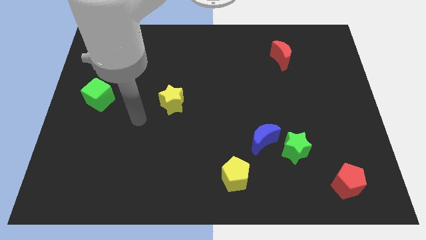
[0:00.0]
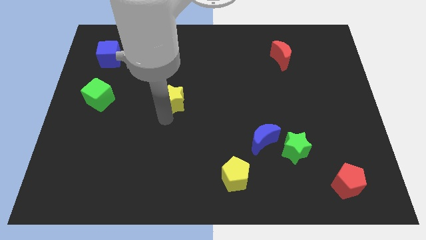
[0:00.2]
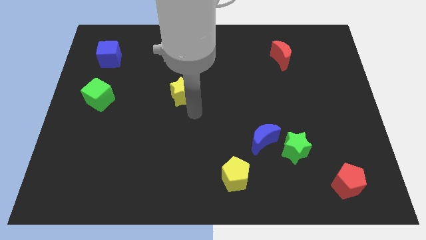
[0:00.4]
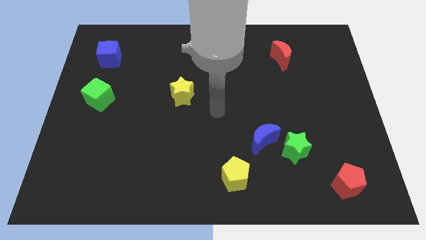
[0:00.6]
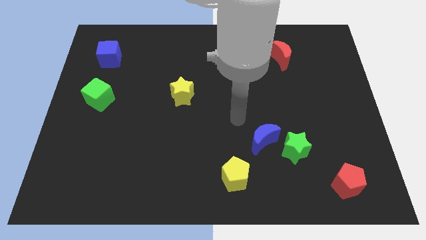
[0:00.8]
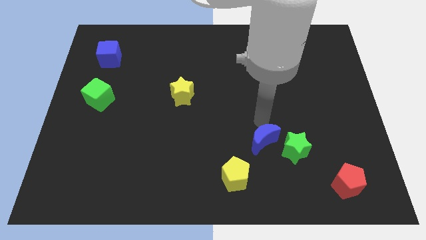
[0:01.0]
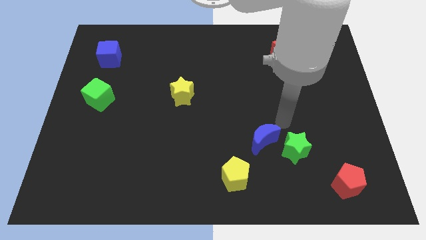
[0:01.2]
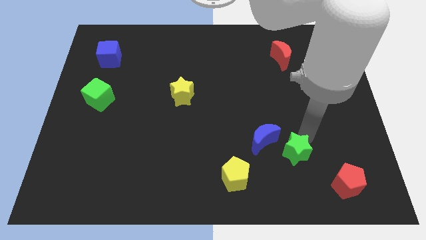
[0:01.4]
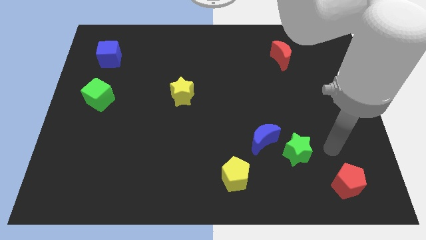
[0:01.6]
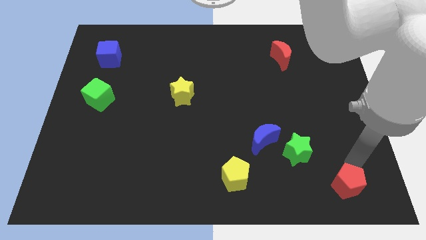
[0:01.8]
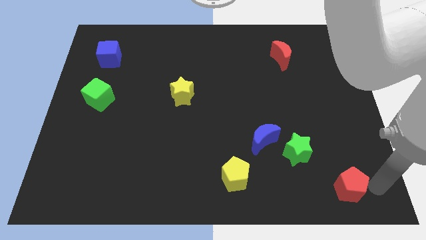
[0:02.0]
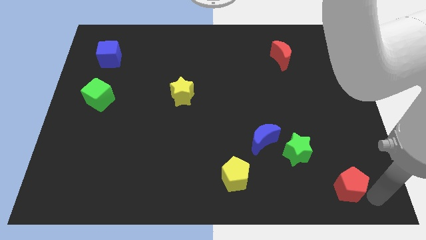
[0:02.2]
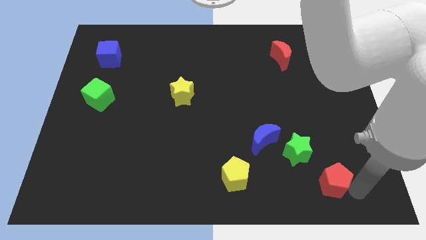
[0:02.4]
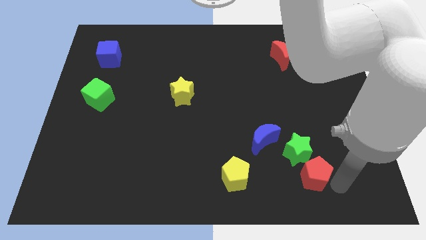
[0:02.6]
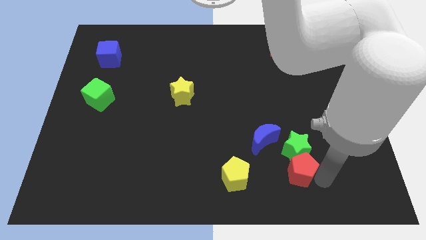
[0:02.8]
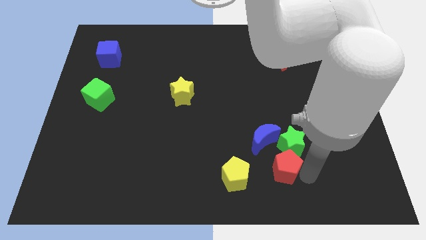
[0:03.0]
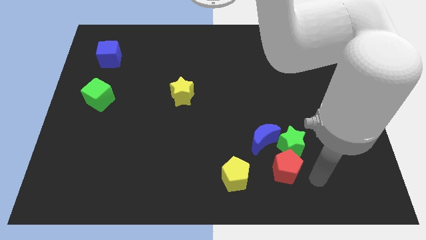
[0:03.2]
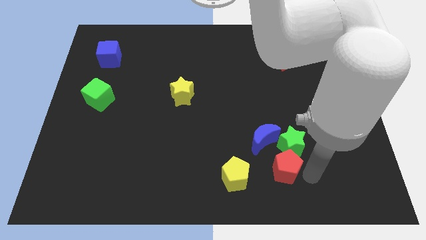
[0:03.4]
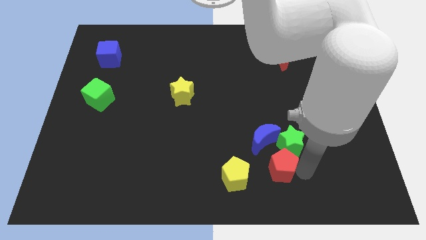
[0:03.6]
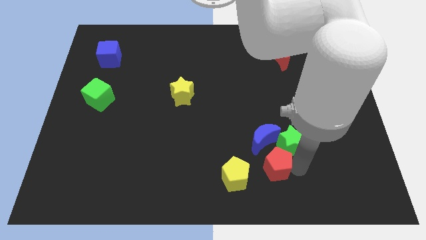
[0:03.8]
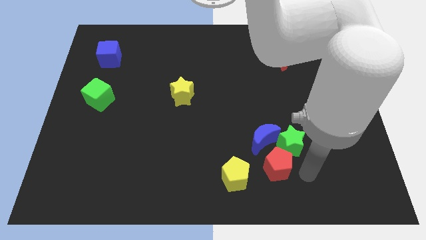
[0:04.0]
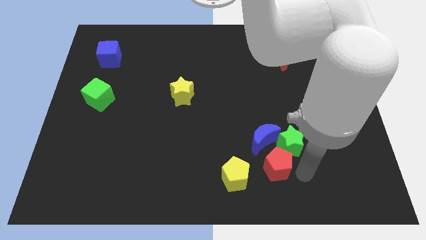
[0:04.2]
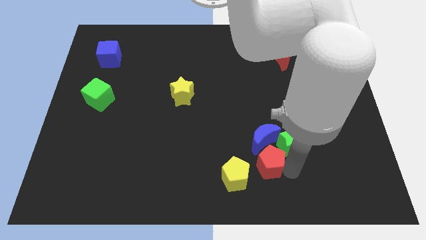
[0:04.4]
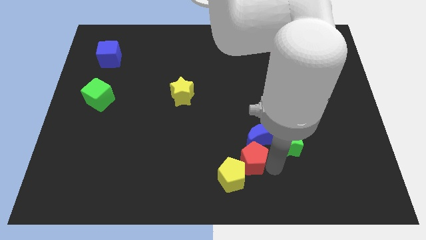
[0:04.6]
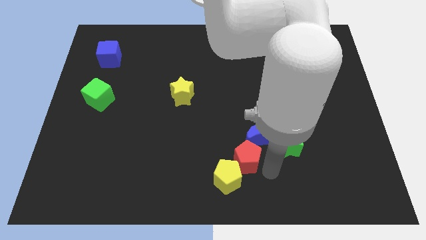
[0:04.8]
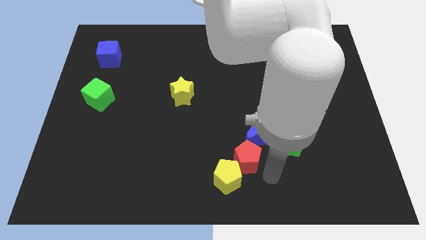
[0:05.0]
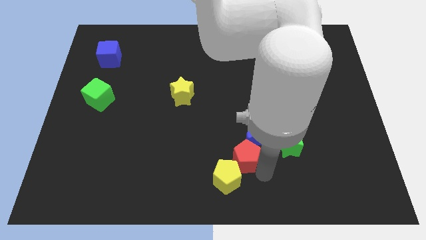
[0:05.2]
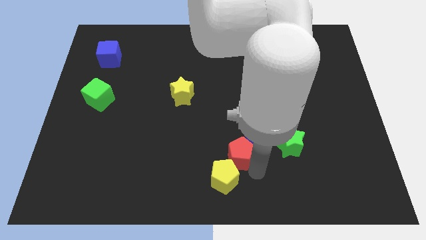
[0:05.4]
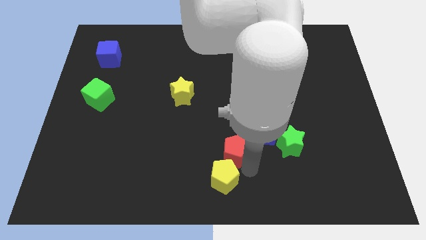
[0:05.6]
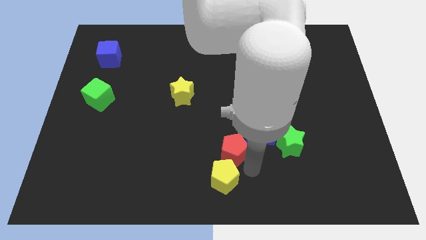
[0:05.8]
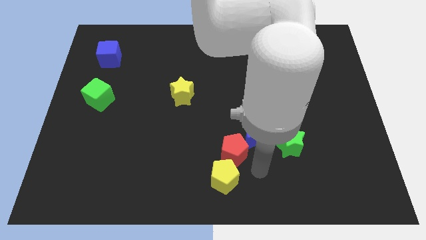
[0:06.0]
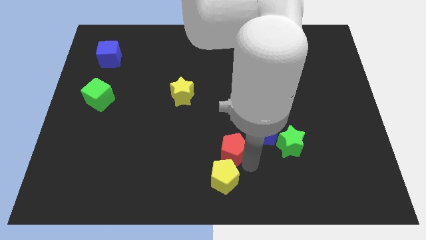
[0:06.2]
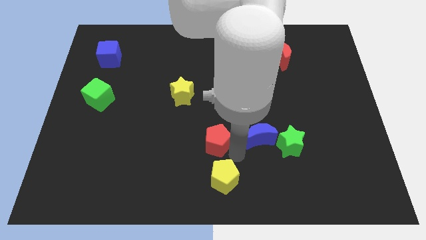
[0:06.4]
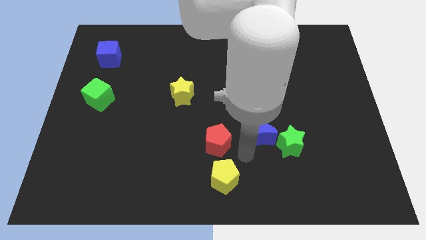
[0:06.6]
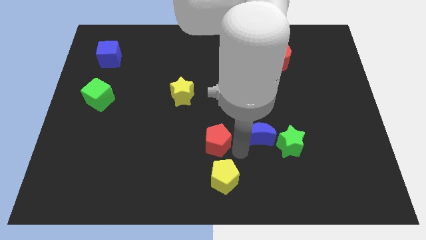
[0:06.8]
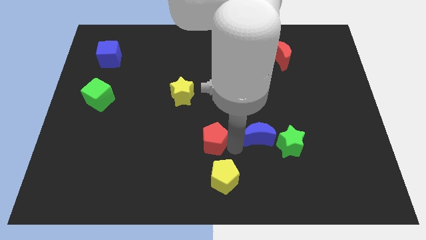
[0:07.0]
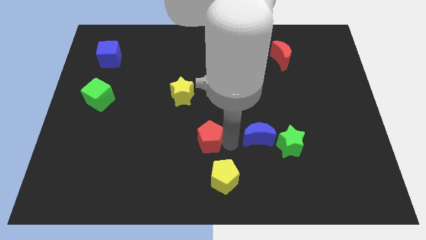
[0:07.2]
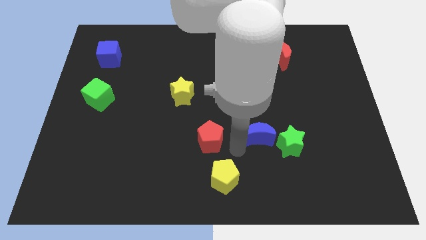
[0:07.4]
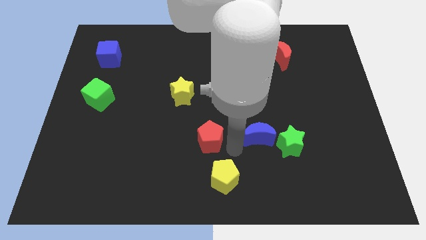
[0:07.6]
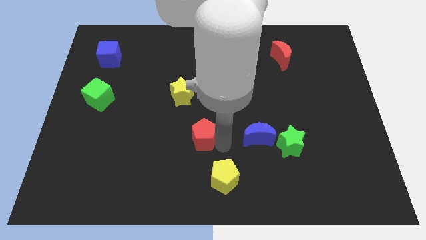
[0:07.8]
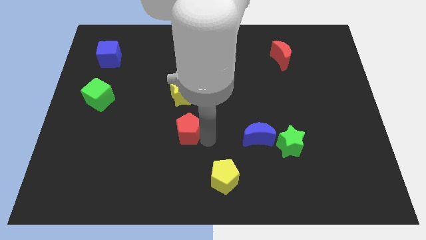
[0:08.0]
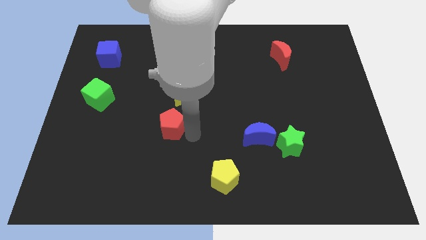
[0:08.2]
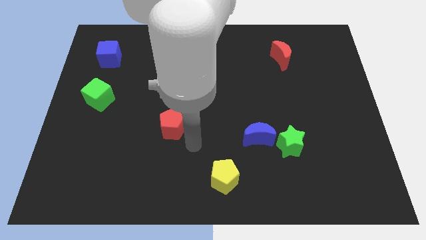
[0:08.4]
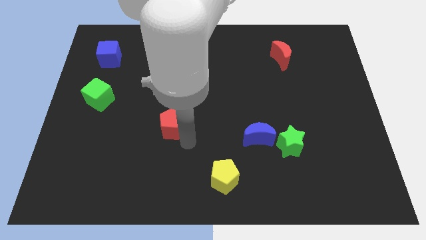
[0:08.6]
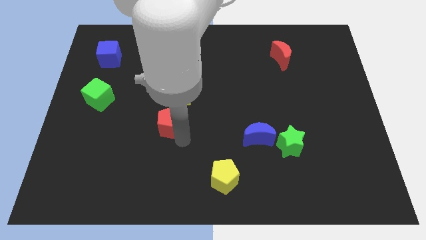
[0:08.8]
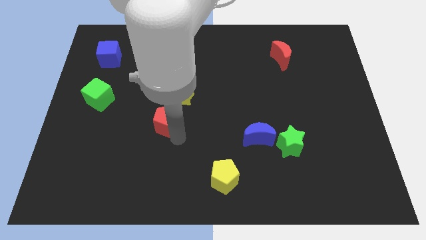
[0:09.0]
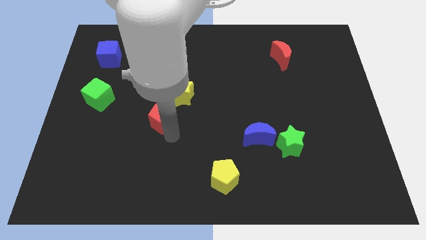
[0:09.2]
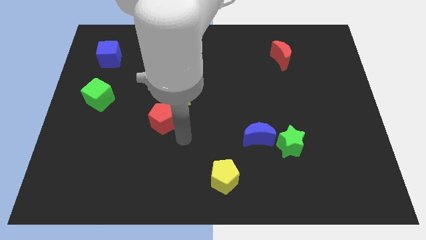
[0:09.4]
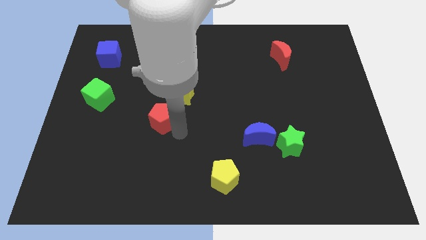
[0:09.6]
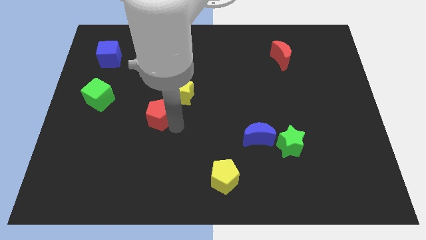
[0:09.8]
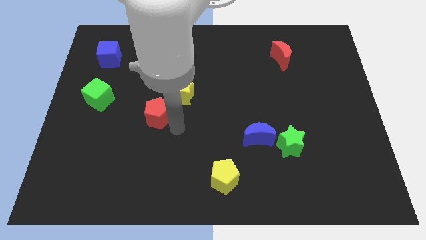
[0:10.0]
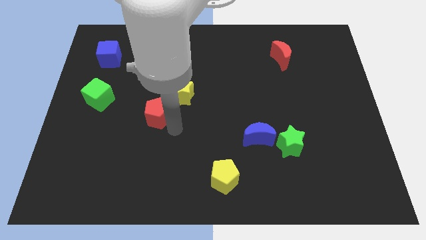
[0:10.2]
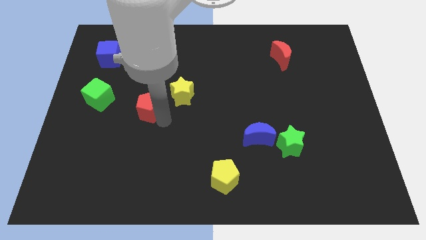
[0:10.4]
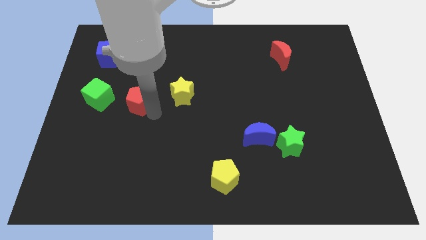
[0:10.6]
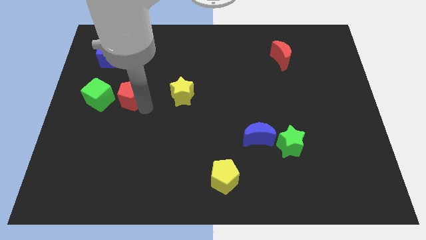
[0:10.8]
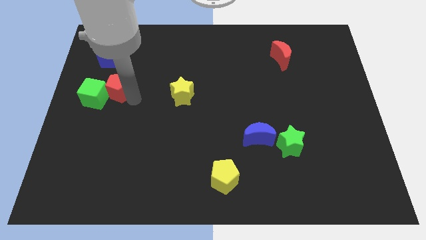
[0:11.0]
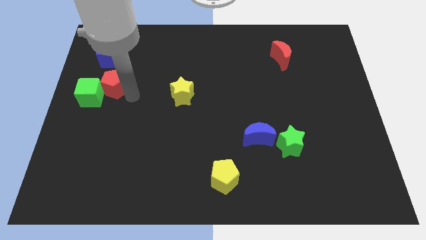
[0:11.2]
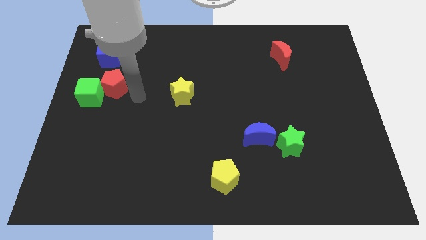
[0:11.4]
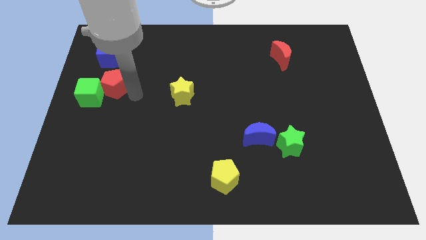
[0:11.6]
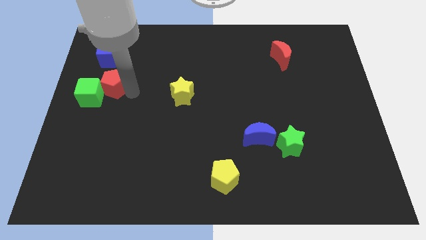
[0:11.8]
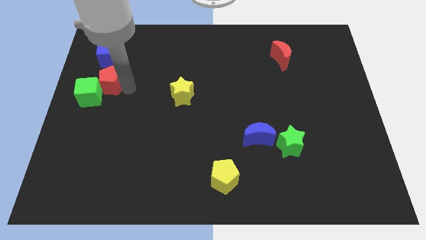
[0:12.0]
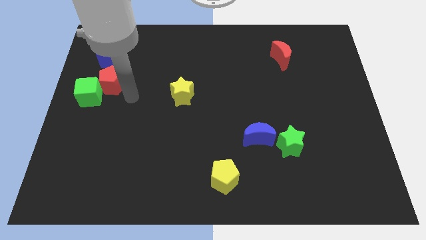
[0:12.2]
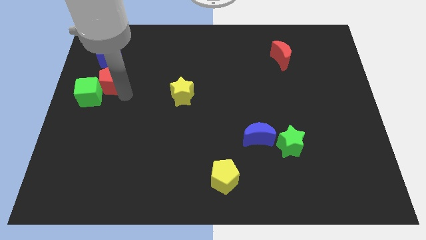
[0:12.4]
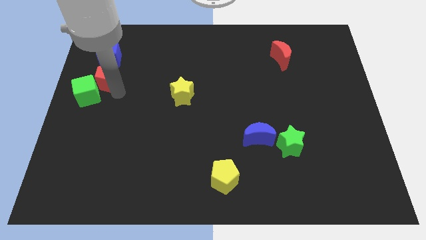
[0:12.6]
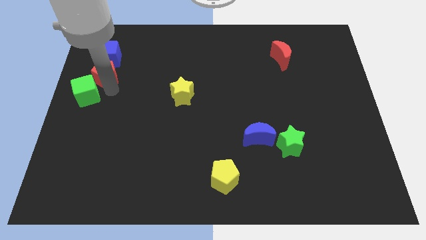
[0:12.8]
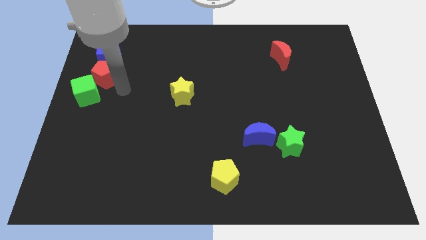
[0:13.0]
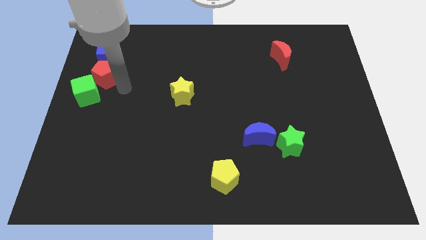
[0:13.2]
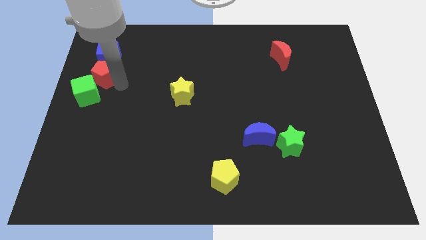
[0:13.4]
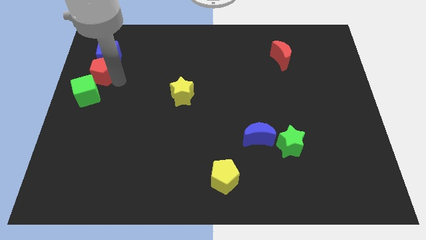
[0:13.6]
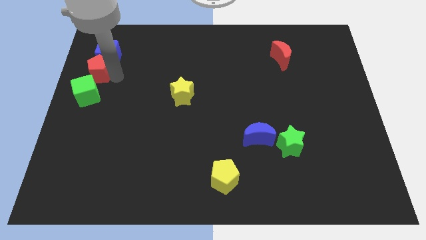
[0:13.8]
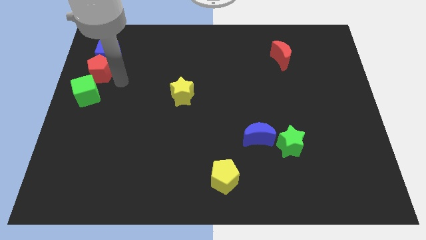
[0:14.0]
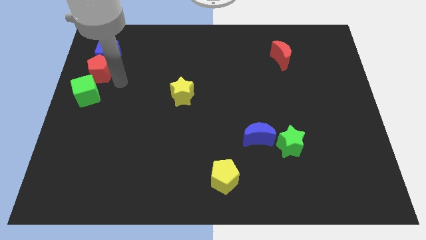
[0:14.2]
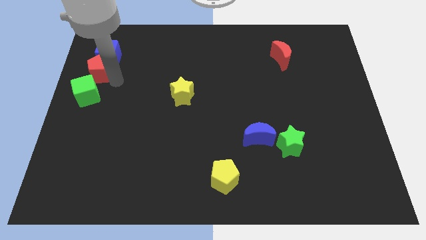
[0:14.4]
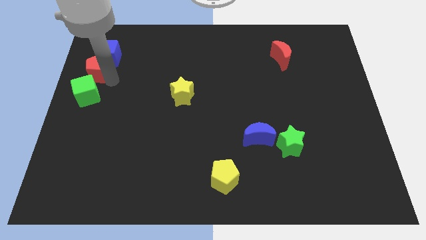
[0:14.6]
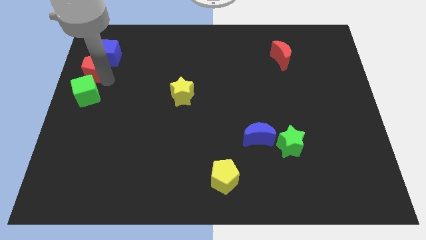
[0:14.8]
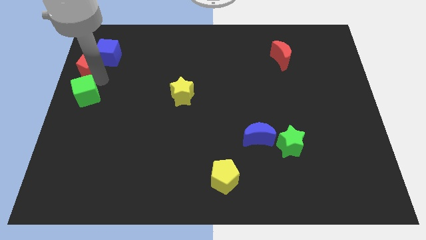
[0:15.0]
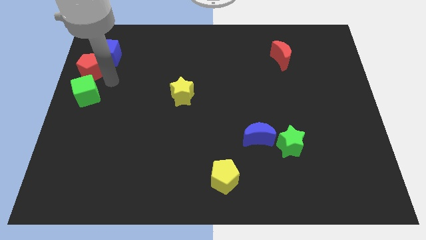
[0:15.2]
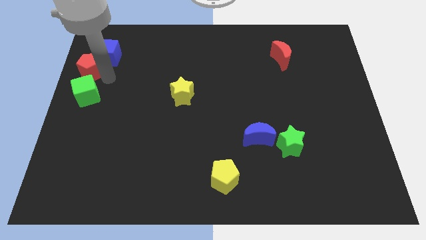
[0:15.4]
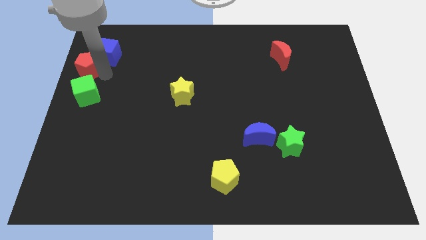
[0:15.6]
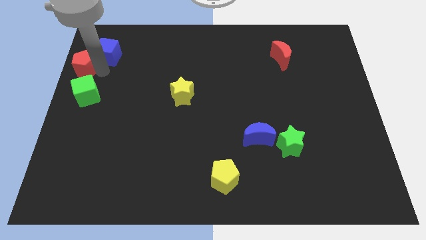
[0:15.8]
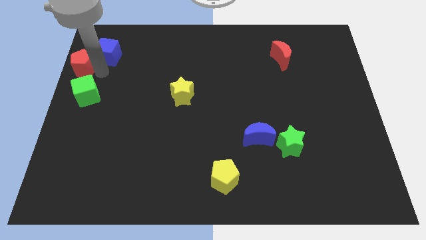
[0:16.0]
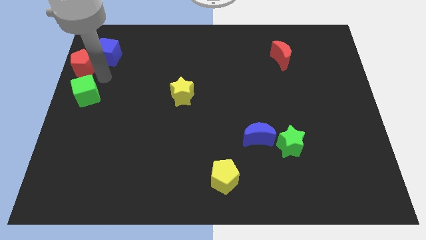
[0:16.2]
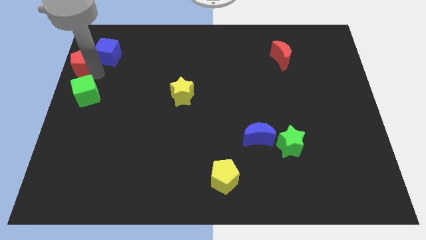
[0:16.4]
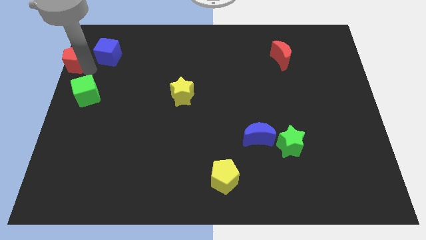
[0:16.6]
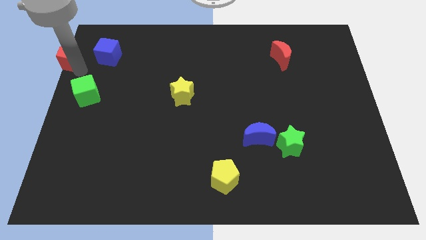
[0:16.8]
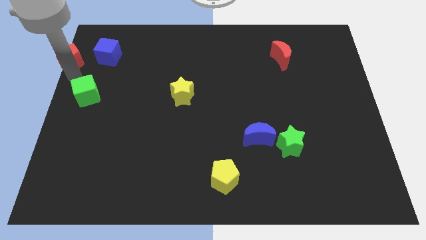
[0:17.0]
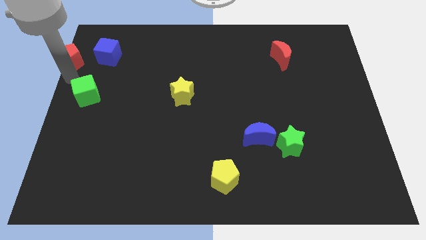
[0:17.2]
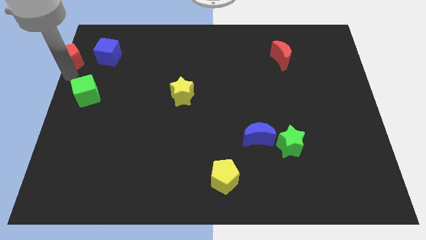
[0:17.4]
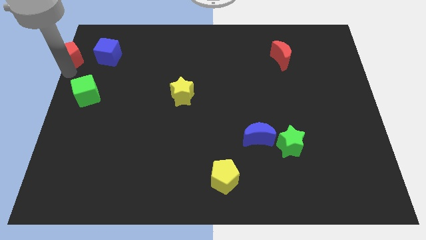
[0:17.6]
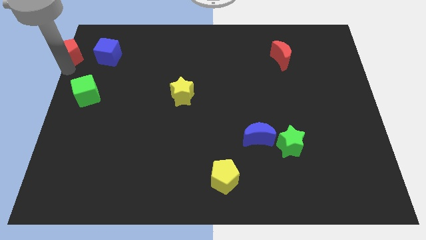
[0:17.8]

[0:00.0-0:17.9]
slide the red pentagon to the upper left corner
